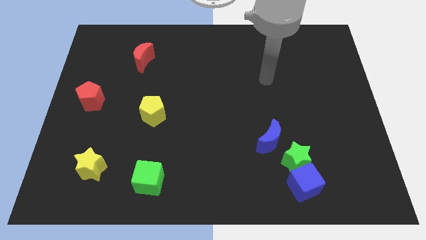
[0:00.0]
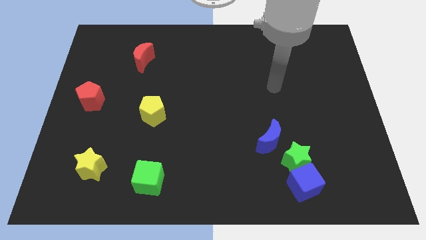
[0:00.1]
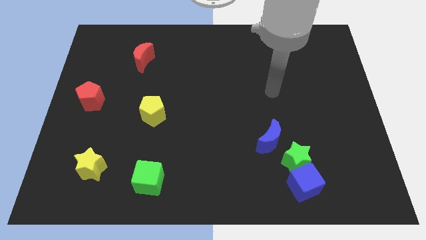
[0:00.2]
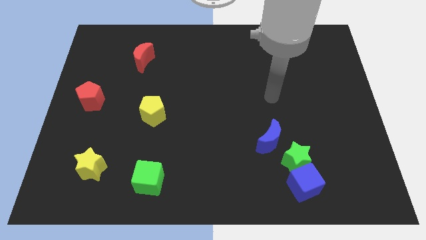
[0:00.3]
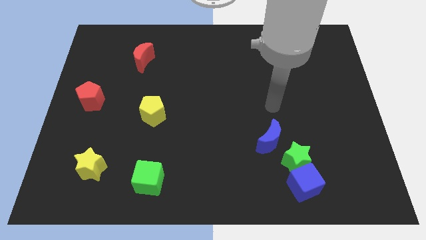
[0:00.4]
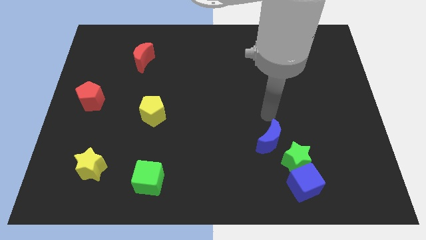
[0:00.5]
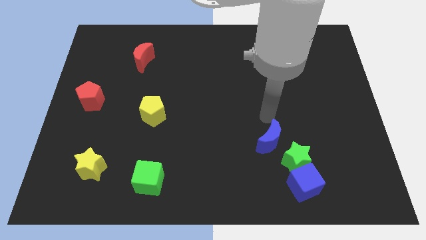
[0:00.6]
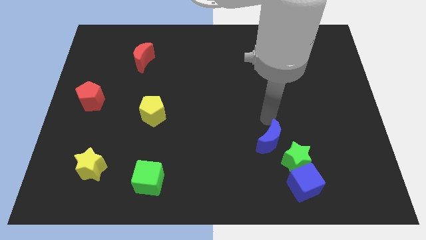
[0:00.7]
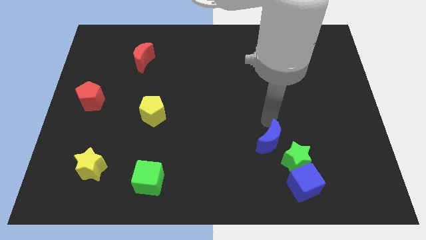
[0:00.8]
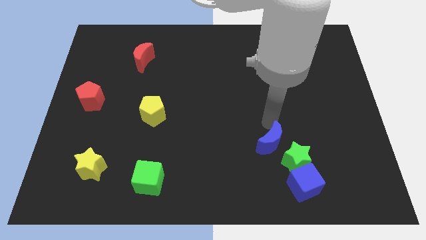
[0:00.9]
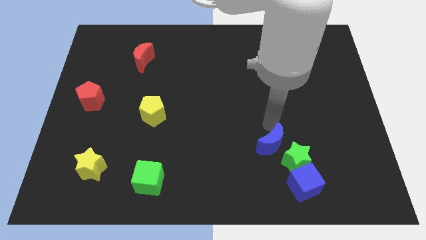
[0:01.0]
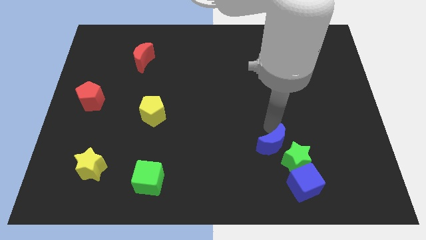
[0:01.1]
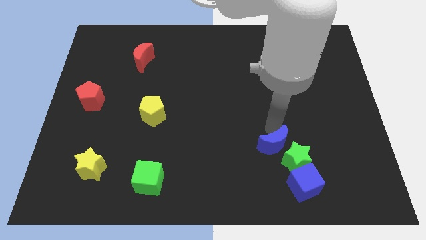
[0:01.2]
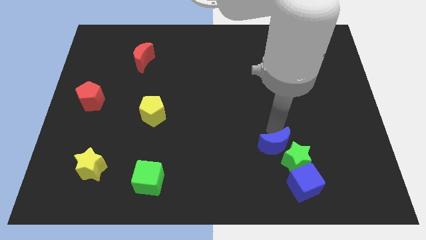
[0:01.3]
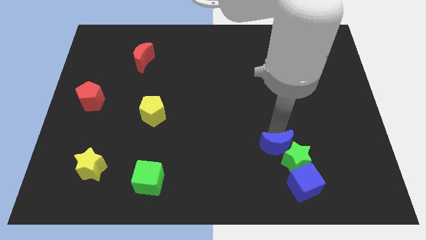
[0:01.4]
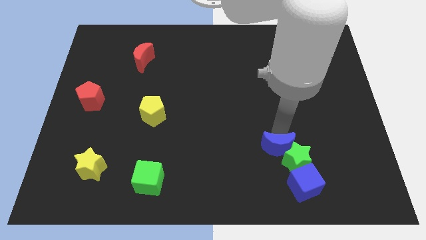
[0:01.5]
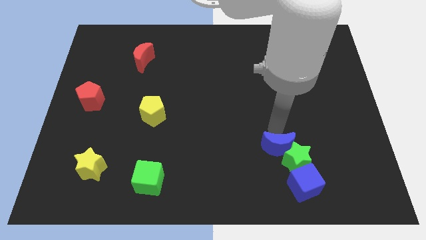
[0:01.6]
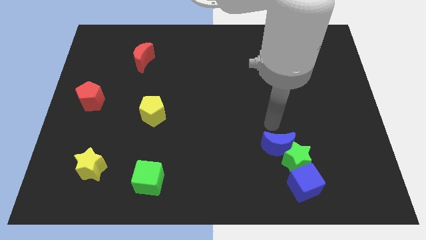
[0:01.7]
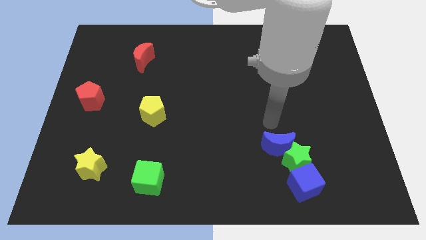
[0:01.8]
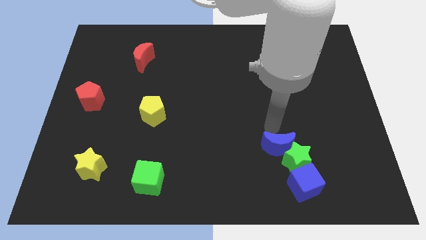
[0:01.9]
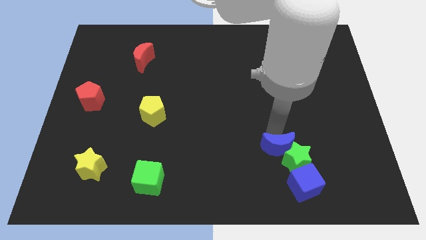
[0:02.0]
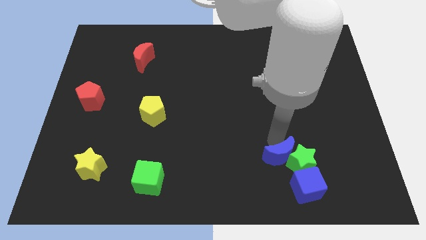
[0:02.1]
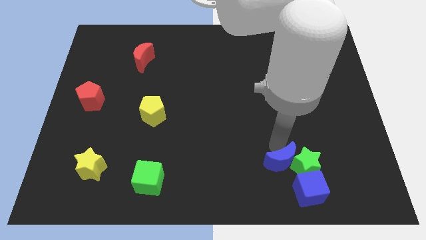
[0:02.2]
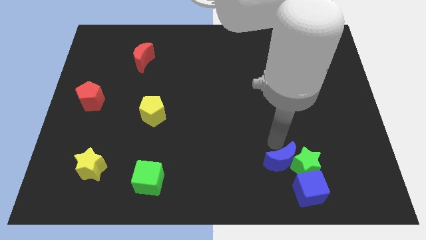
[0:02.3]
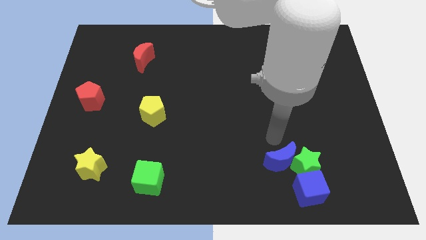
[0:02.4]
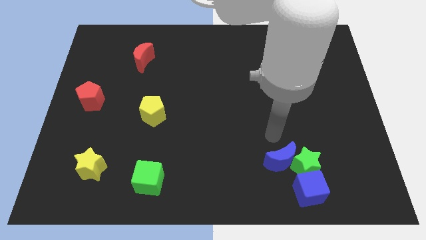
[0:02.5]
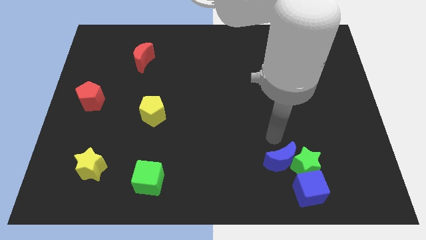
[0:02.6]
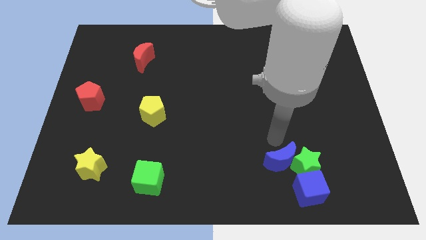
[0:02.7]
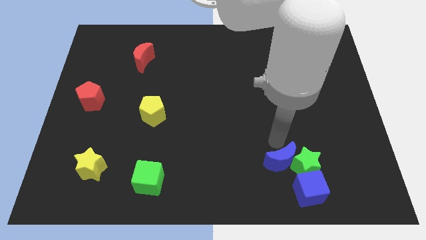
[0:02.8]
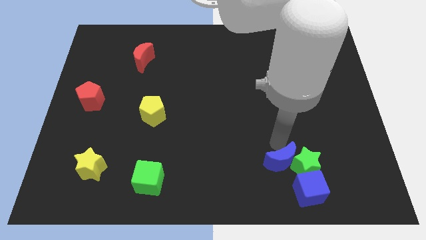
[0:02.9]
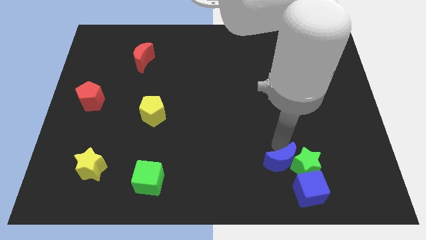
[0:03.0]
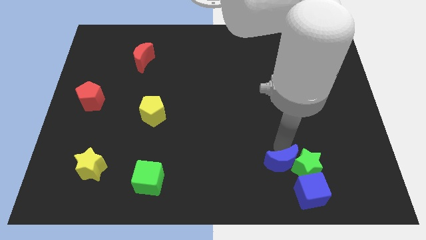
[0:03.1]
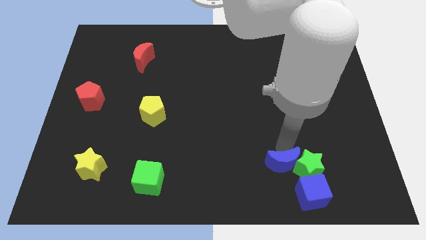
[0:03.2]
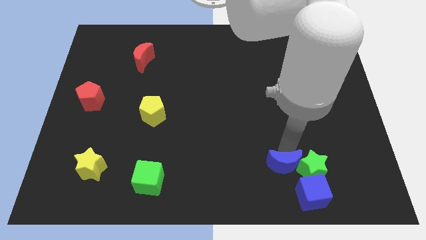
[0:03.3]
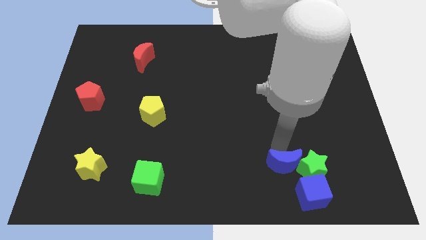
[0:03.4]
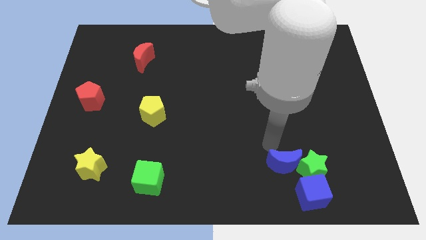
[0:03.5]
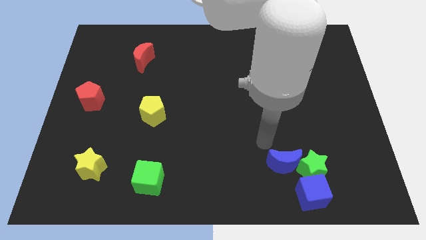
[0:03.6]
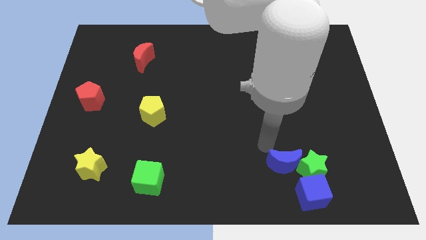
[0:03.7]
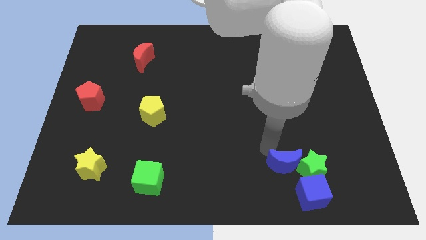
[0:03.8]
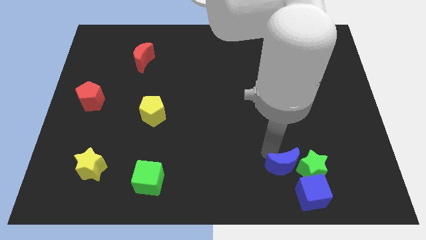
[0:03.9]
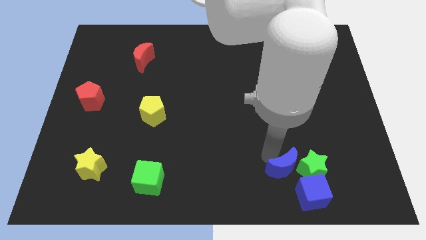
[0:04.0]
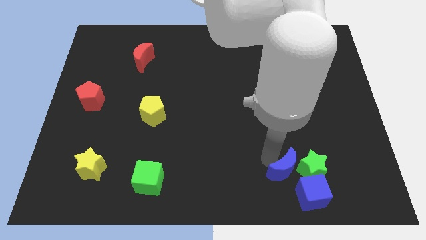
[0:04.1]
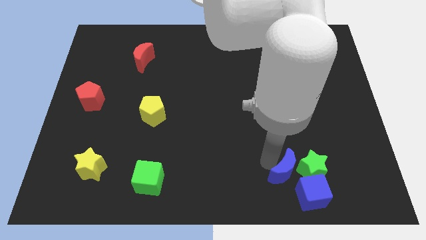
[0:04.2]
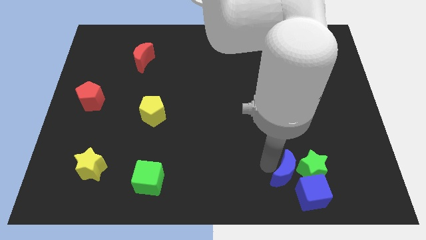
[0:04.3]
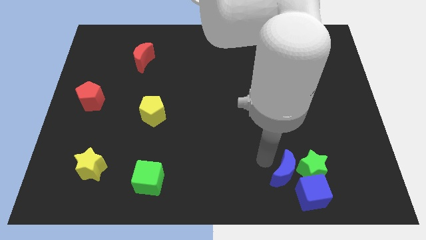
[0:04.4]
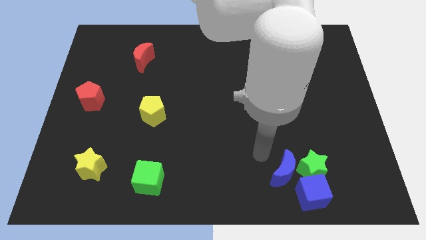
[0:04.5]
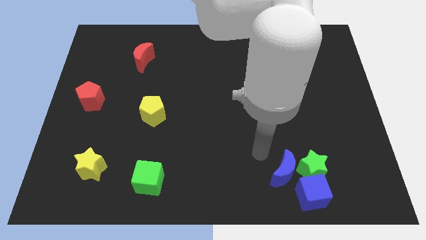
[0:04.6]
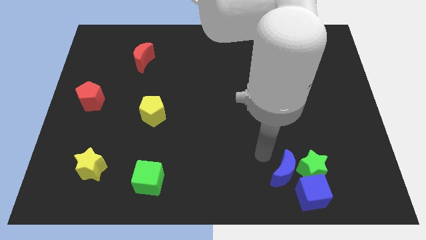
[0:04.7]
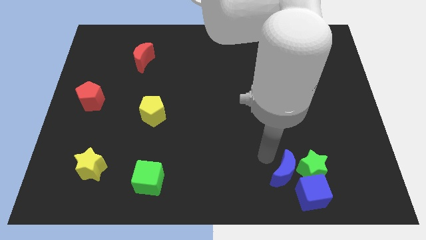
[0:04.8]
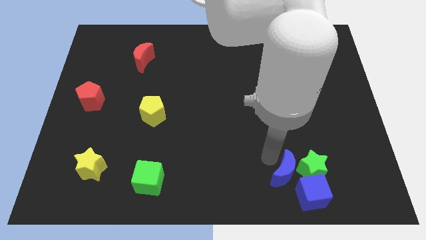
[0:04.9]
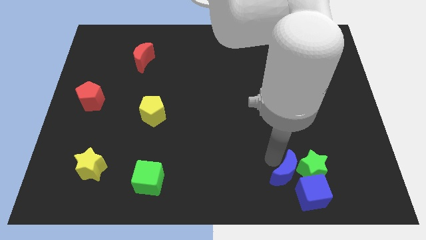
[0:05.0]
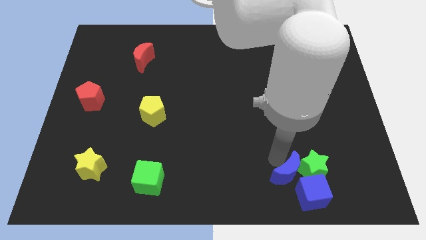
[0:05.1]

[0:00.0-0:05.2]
slide the blue moon towards the blue cube

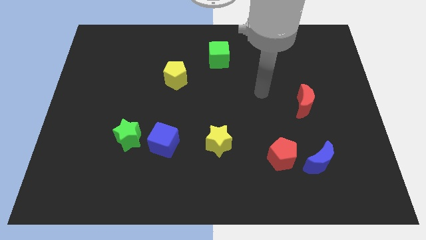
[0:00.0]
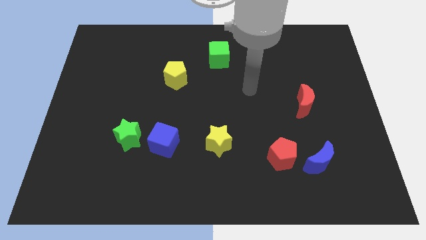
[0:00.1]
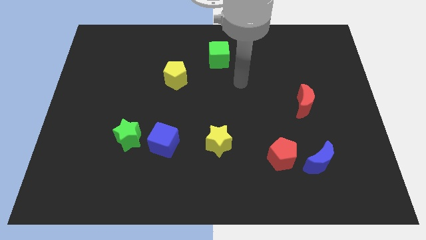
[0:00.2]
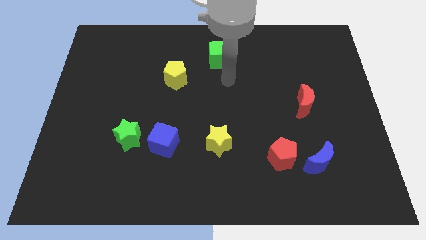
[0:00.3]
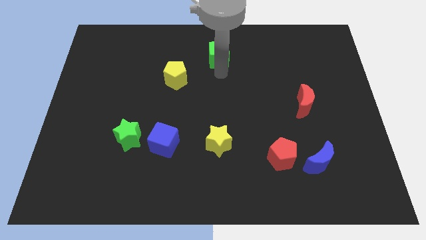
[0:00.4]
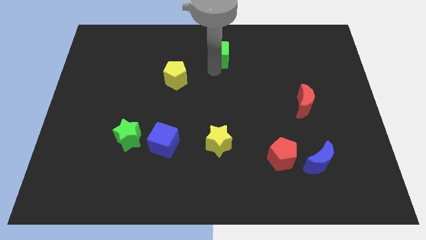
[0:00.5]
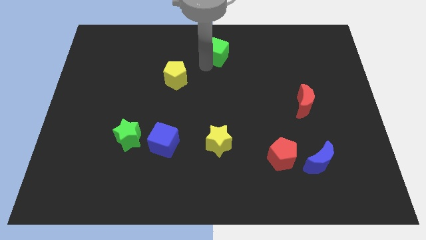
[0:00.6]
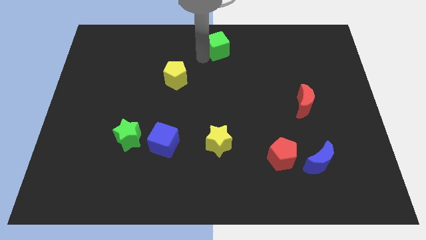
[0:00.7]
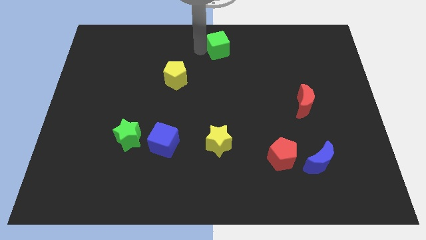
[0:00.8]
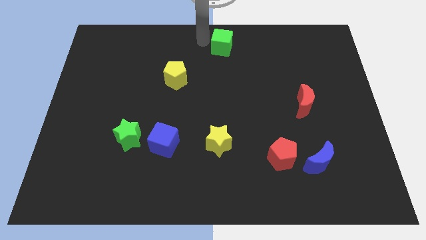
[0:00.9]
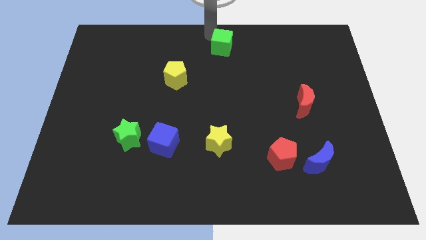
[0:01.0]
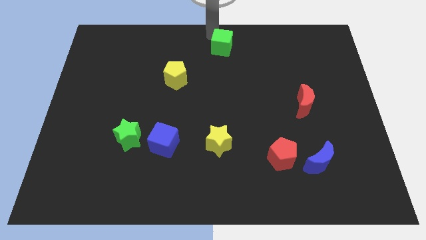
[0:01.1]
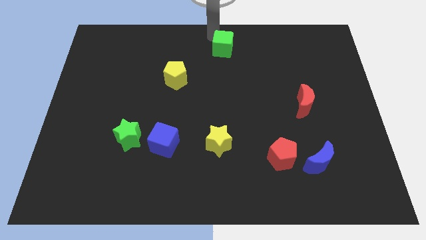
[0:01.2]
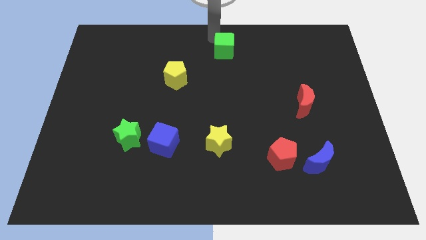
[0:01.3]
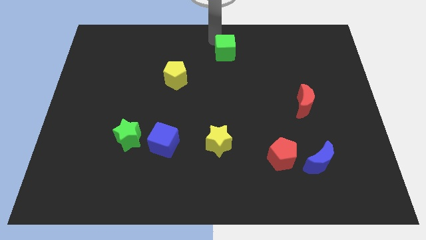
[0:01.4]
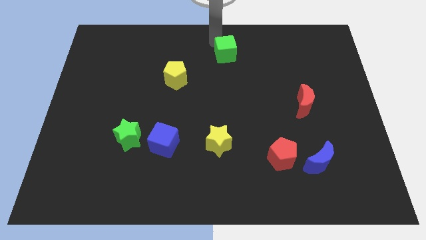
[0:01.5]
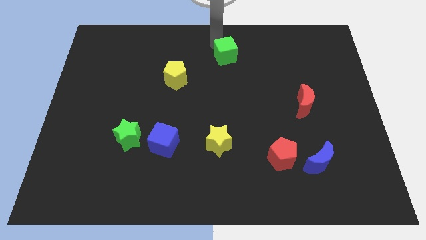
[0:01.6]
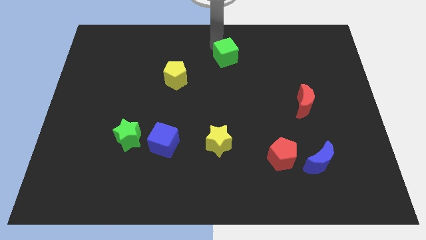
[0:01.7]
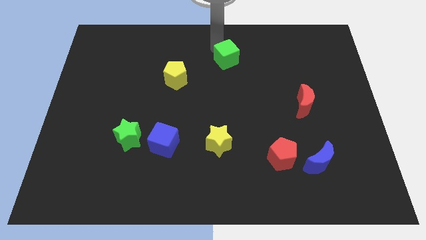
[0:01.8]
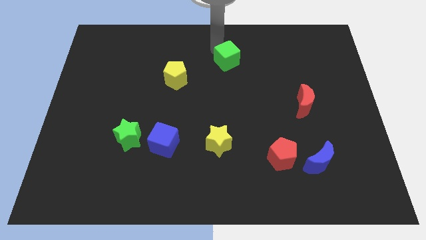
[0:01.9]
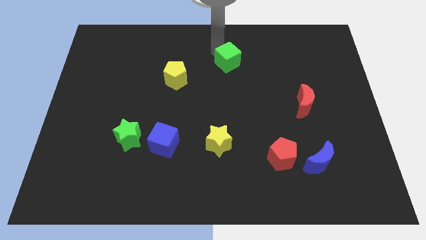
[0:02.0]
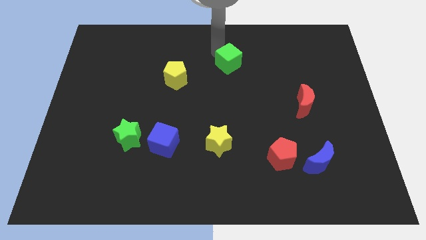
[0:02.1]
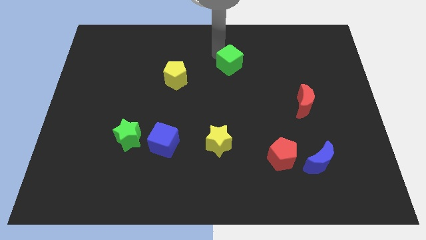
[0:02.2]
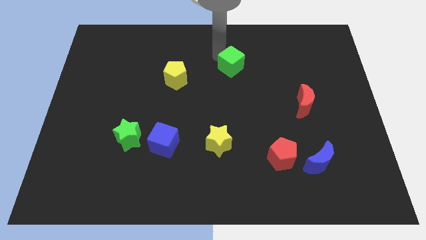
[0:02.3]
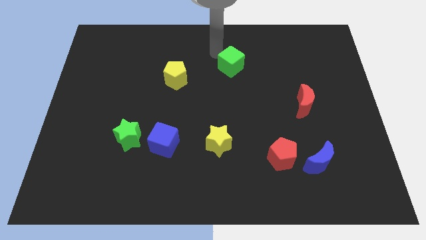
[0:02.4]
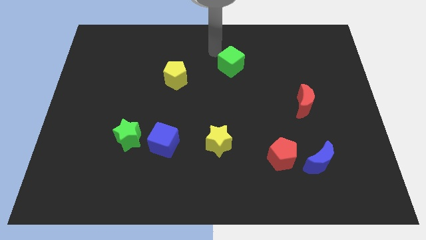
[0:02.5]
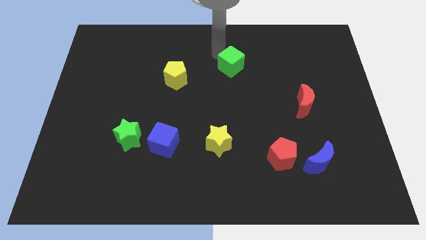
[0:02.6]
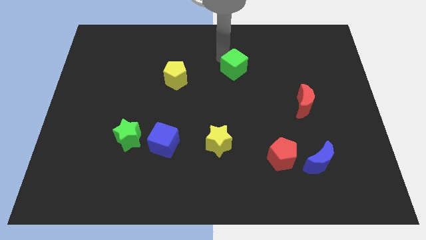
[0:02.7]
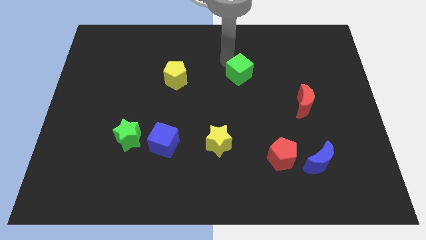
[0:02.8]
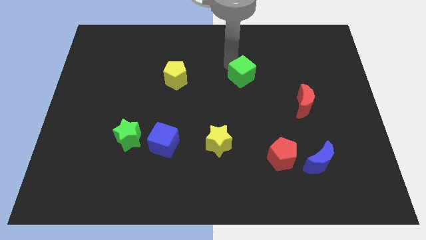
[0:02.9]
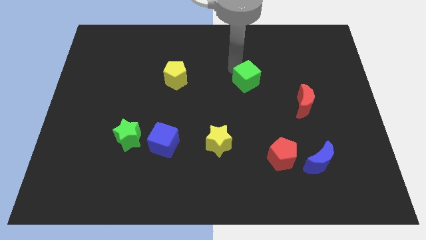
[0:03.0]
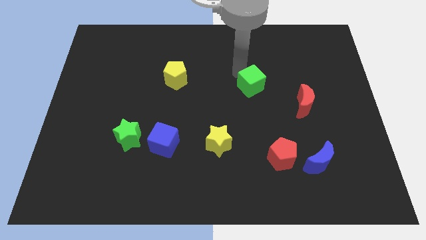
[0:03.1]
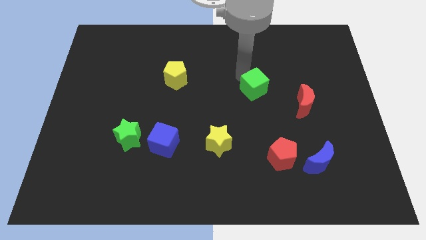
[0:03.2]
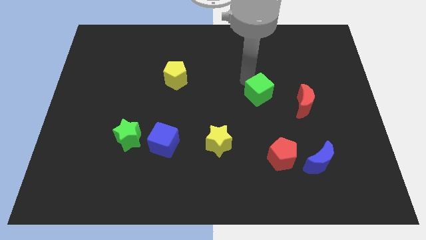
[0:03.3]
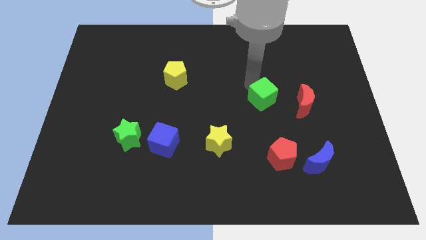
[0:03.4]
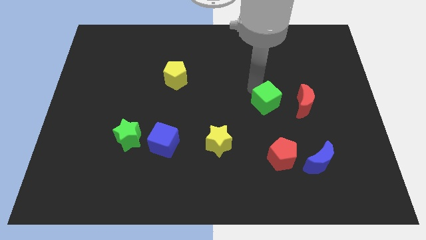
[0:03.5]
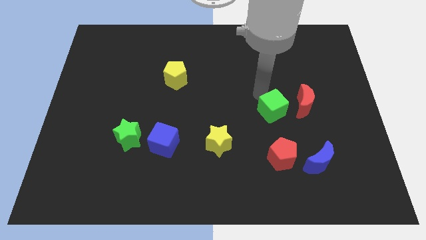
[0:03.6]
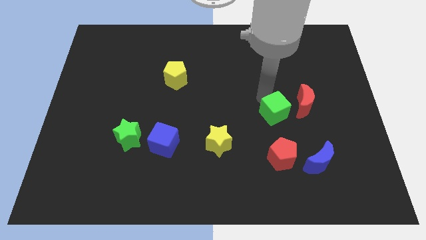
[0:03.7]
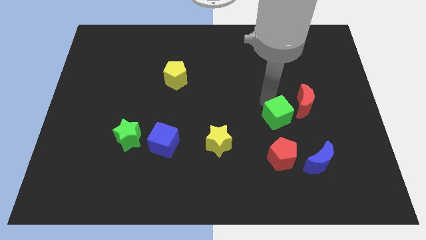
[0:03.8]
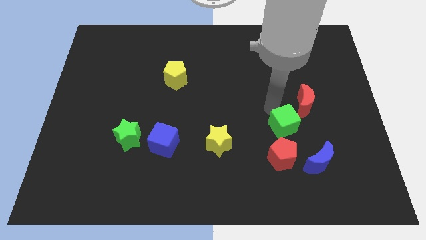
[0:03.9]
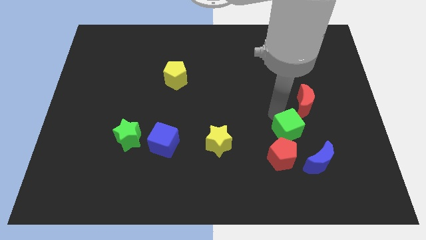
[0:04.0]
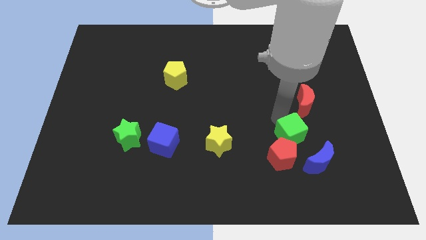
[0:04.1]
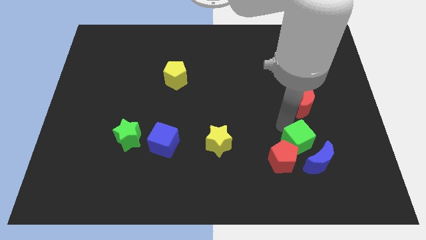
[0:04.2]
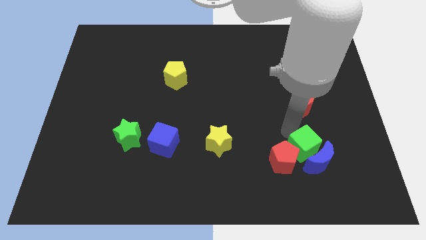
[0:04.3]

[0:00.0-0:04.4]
put the green cube towards the blue moon
